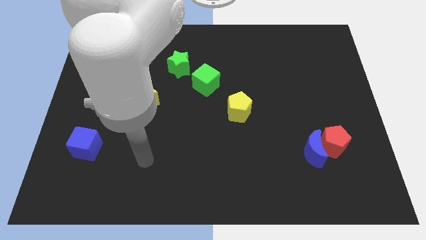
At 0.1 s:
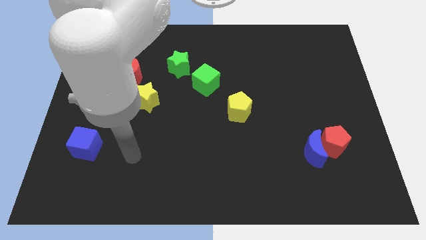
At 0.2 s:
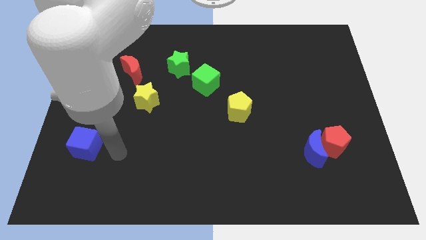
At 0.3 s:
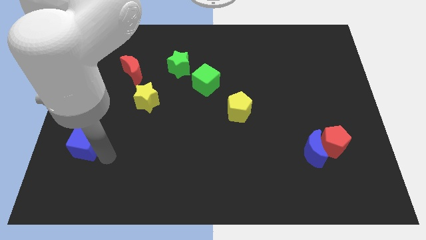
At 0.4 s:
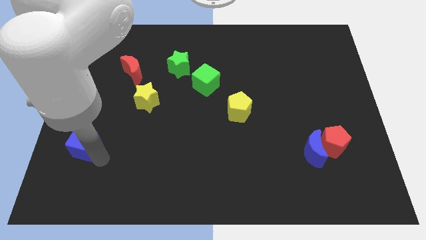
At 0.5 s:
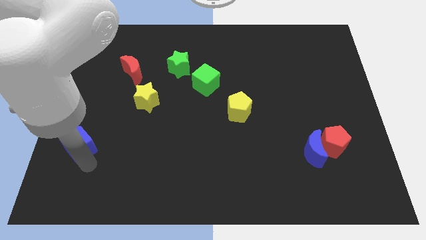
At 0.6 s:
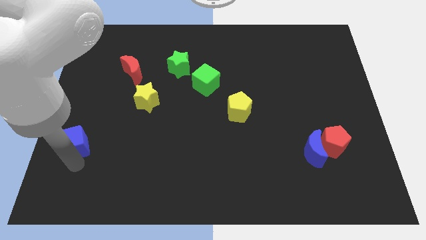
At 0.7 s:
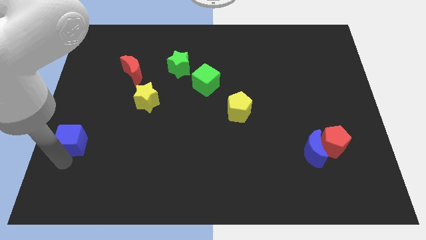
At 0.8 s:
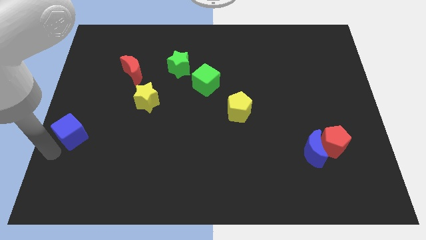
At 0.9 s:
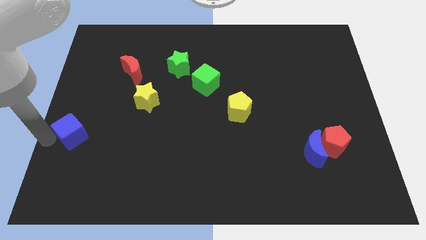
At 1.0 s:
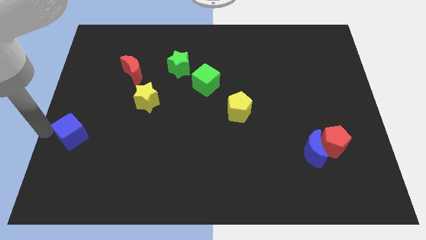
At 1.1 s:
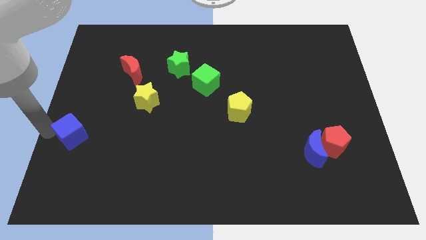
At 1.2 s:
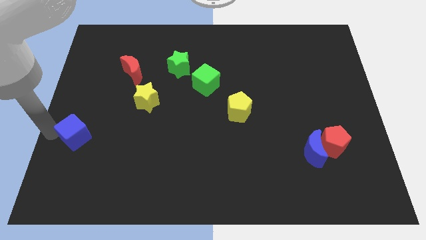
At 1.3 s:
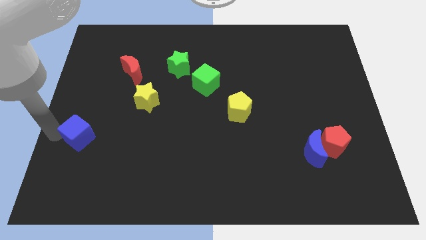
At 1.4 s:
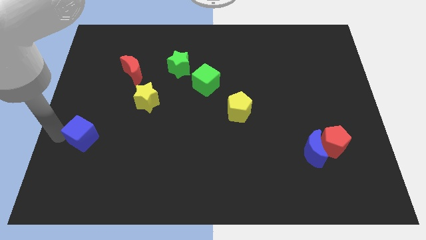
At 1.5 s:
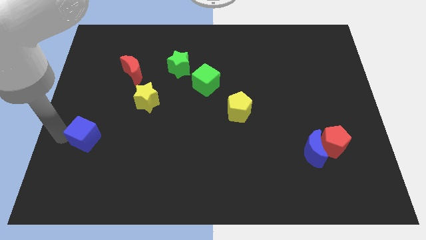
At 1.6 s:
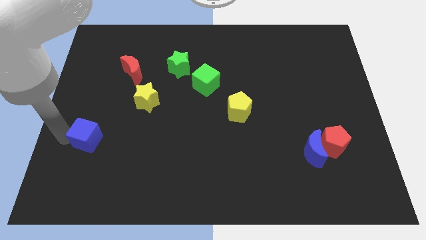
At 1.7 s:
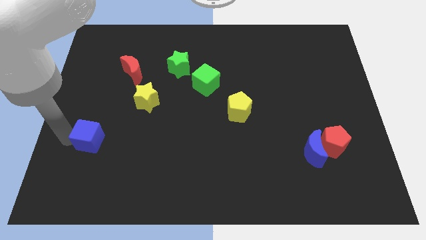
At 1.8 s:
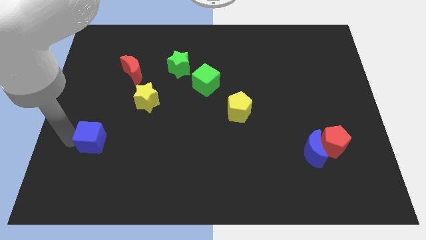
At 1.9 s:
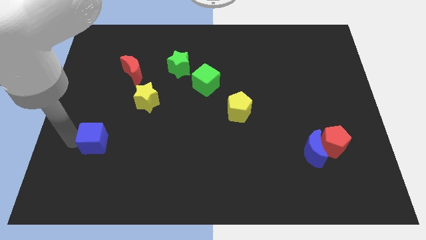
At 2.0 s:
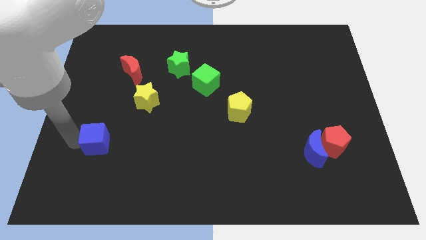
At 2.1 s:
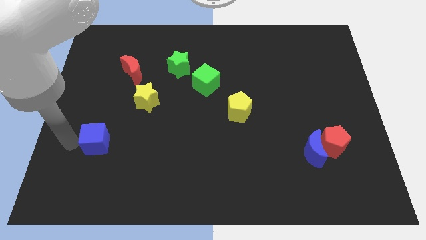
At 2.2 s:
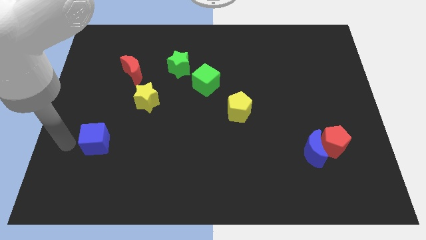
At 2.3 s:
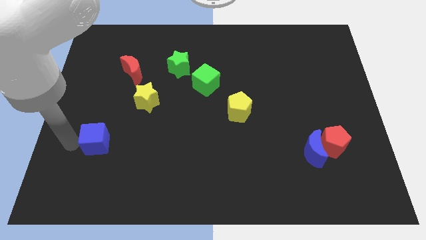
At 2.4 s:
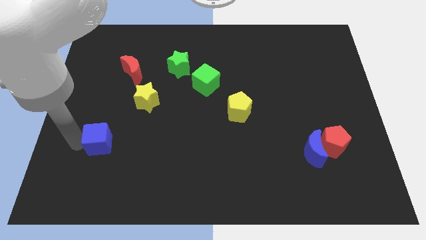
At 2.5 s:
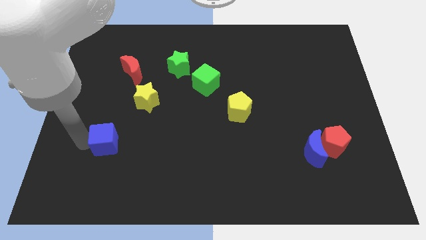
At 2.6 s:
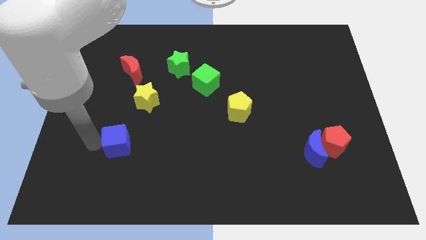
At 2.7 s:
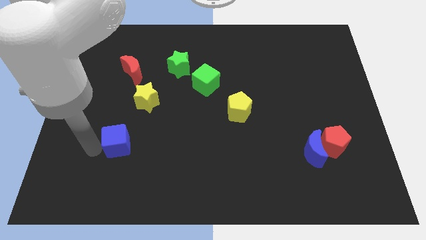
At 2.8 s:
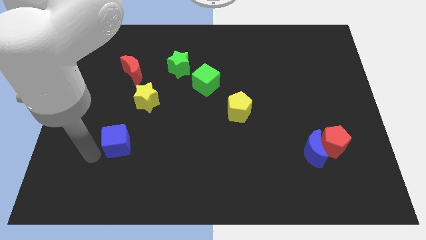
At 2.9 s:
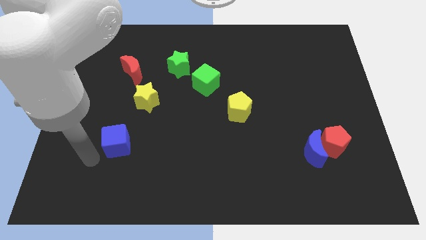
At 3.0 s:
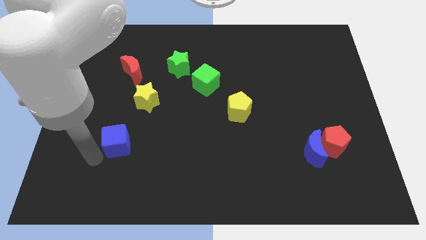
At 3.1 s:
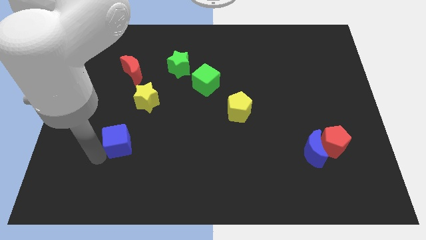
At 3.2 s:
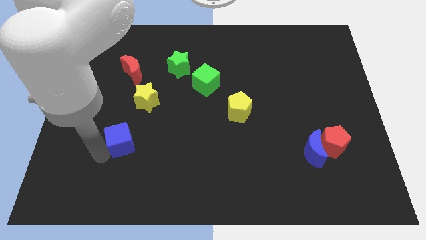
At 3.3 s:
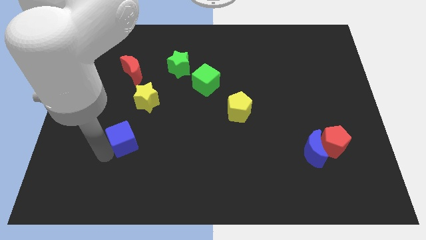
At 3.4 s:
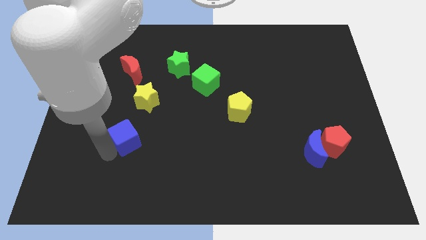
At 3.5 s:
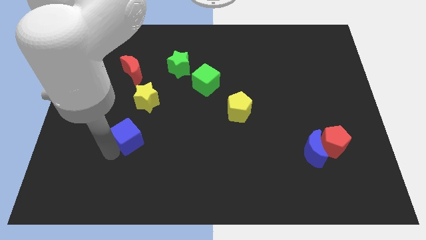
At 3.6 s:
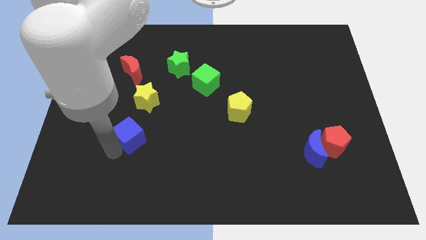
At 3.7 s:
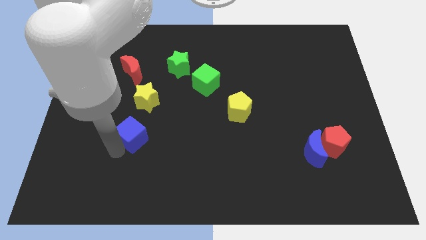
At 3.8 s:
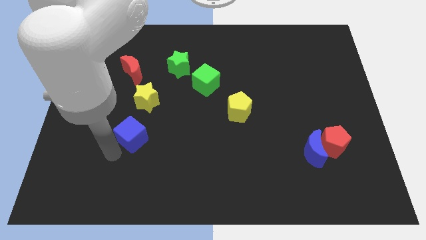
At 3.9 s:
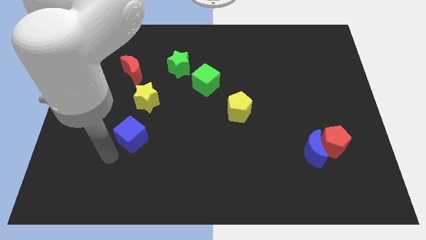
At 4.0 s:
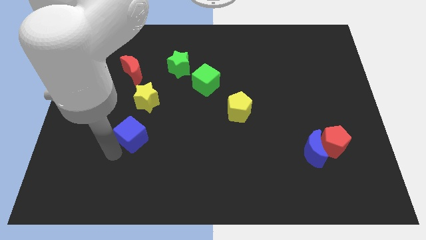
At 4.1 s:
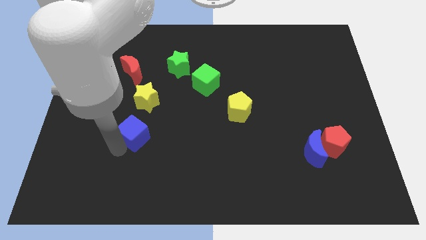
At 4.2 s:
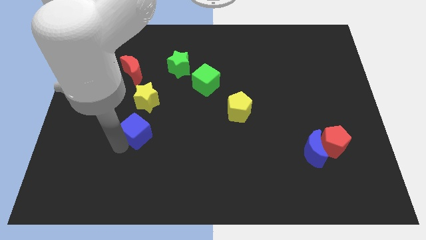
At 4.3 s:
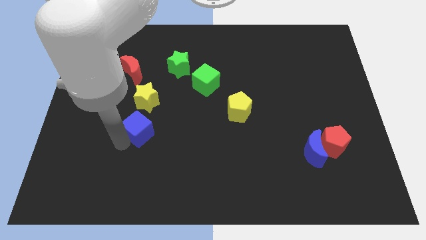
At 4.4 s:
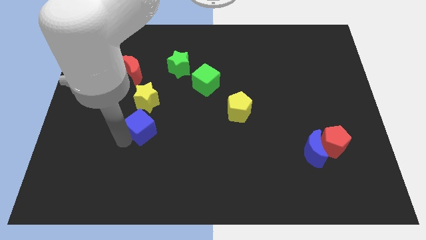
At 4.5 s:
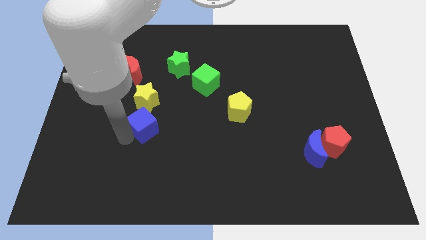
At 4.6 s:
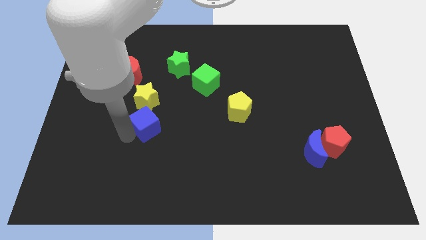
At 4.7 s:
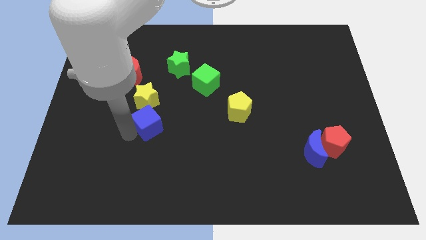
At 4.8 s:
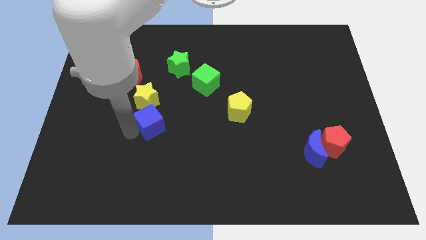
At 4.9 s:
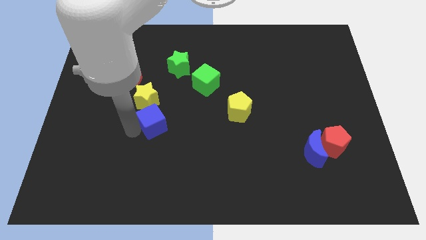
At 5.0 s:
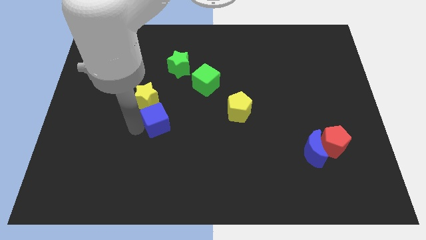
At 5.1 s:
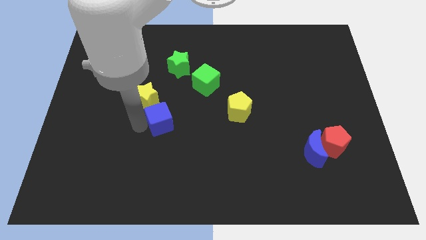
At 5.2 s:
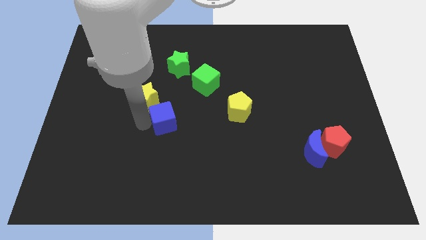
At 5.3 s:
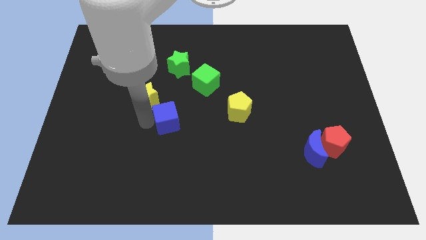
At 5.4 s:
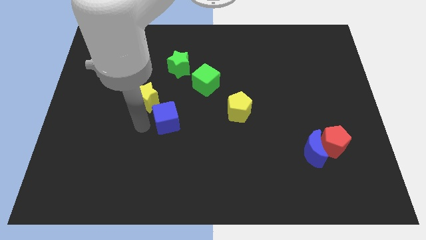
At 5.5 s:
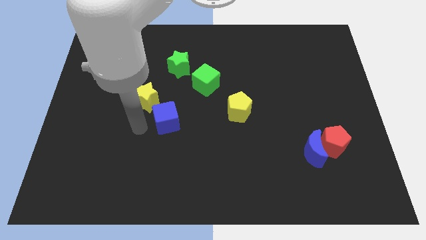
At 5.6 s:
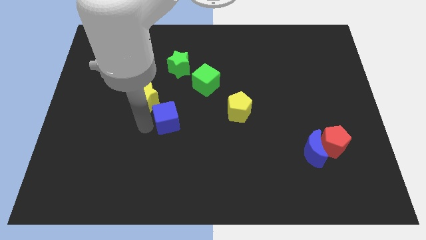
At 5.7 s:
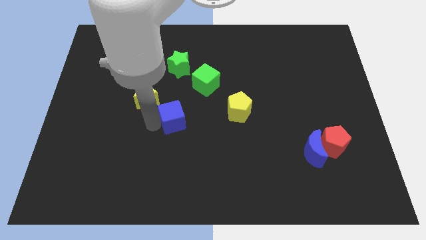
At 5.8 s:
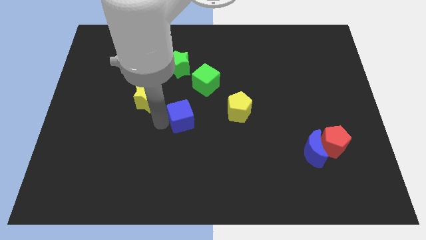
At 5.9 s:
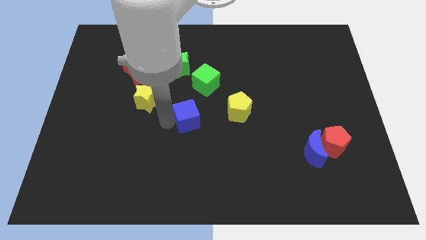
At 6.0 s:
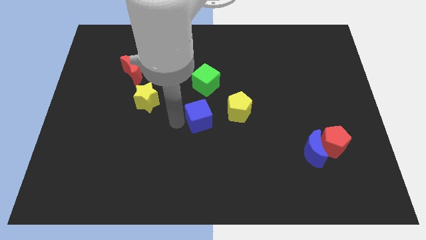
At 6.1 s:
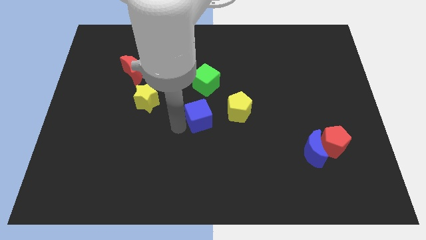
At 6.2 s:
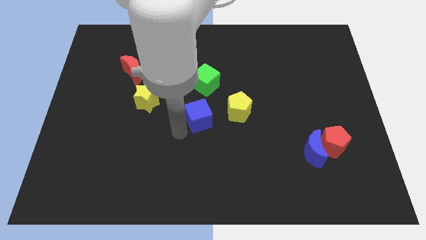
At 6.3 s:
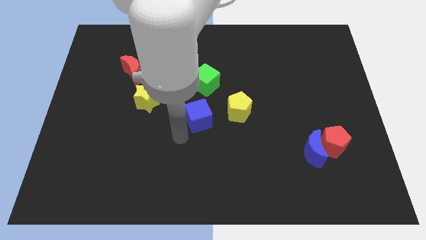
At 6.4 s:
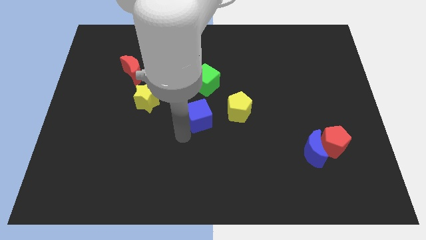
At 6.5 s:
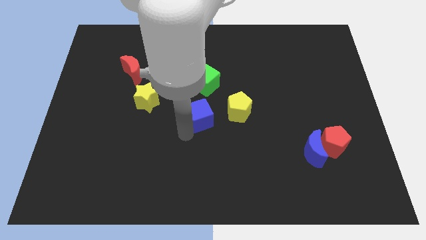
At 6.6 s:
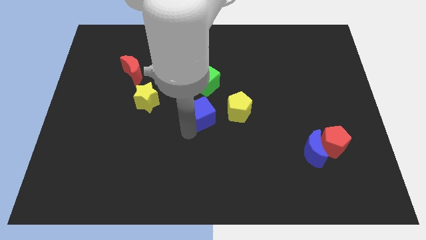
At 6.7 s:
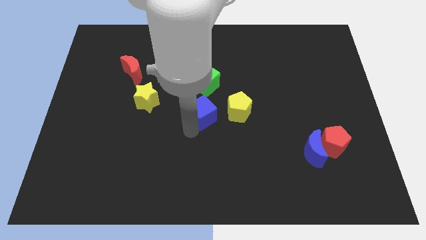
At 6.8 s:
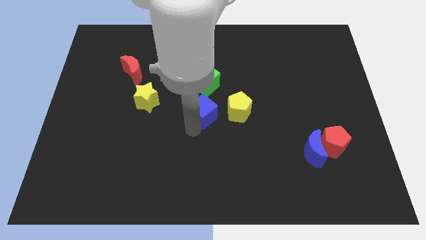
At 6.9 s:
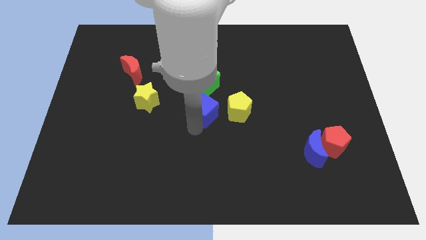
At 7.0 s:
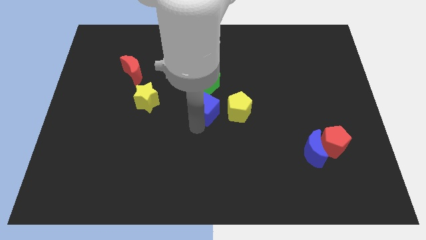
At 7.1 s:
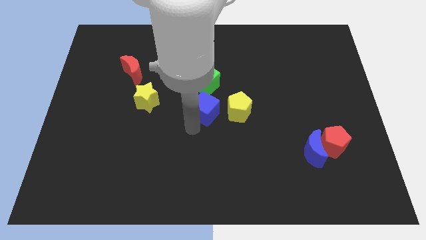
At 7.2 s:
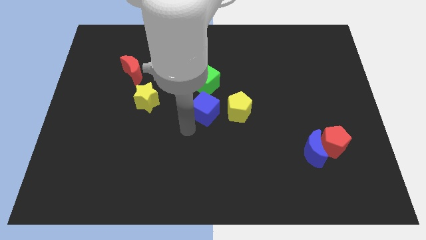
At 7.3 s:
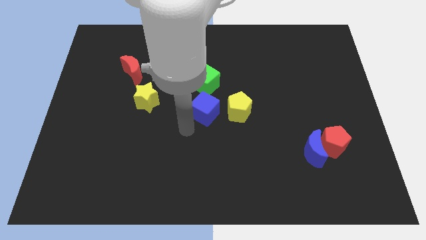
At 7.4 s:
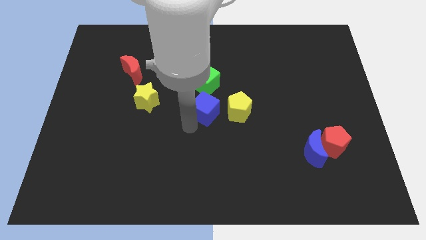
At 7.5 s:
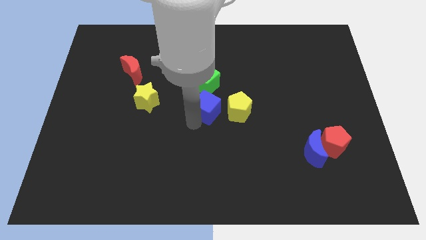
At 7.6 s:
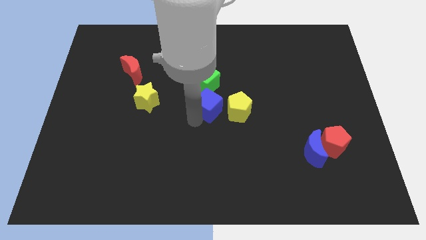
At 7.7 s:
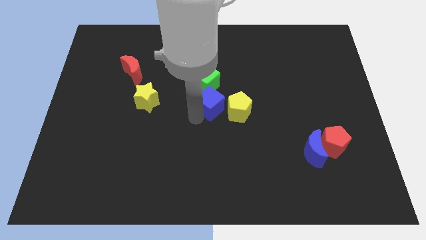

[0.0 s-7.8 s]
put the blue cube to the bottom right of the green cube
